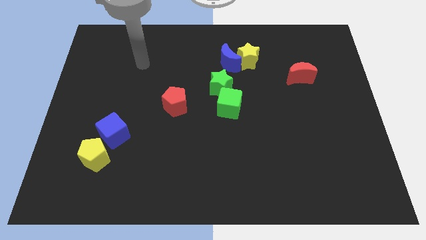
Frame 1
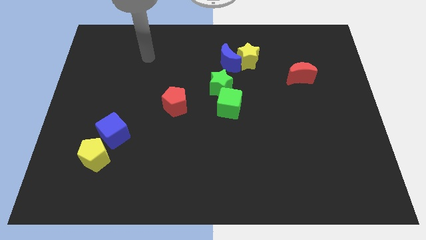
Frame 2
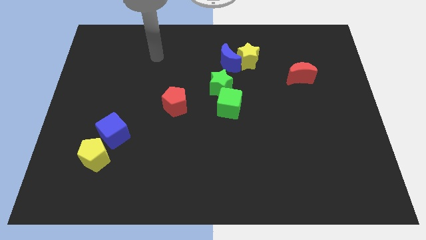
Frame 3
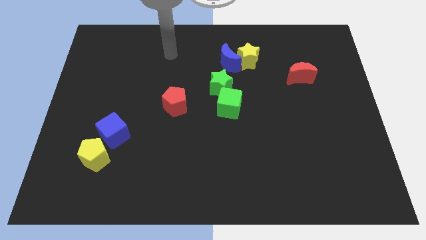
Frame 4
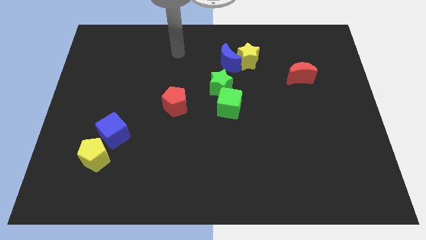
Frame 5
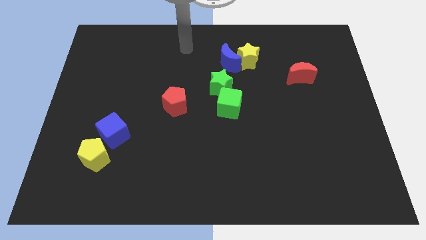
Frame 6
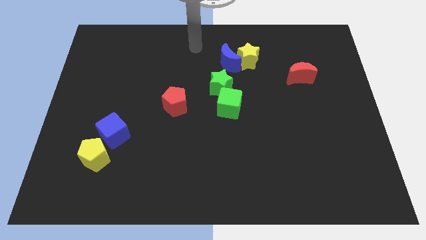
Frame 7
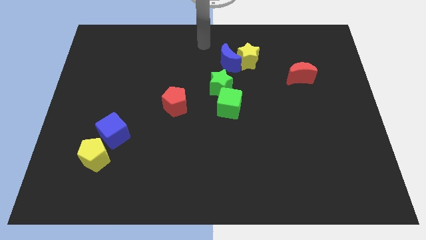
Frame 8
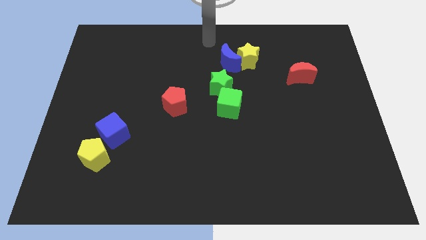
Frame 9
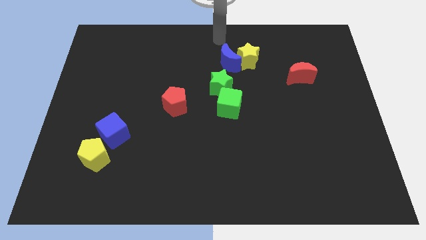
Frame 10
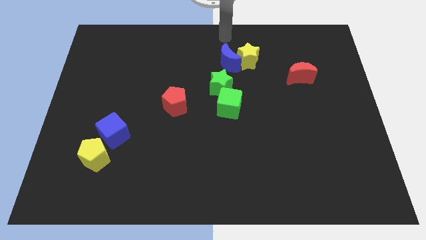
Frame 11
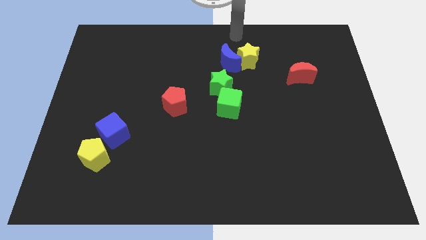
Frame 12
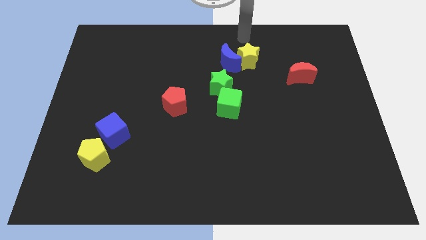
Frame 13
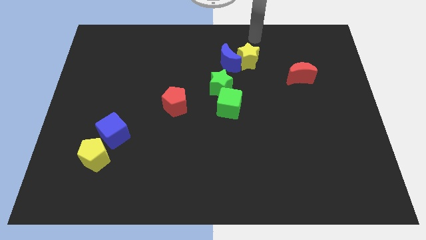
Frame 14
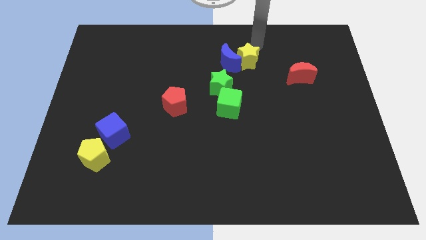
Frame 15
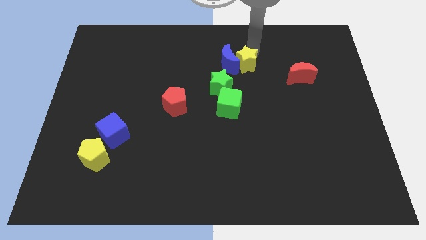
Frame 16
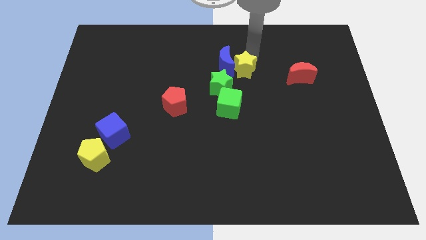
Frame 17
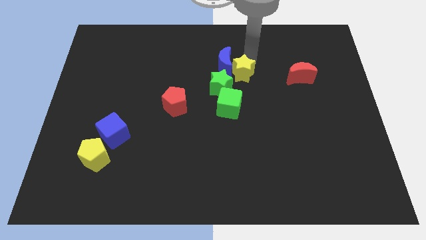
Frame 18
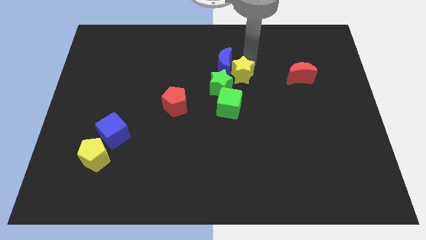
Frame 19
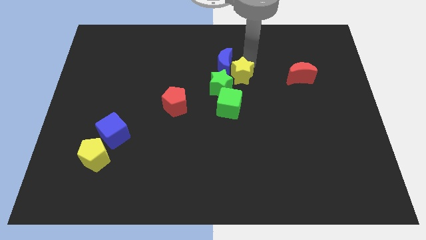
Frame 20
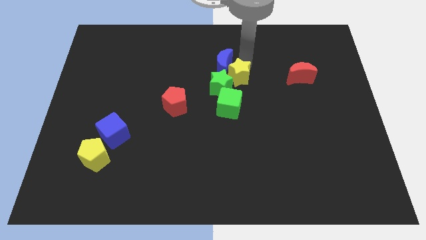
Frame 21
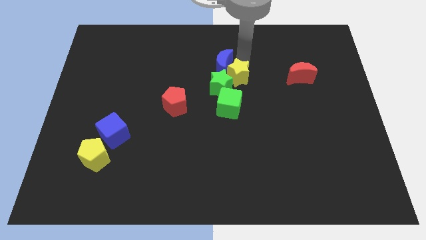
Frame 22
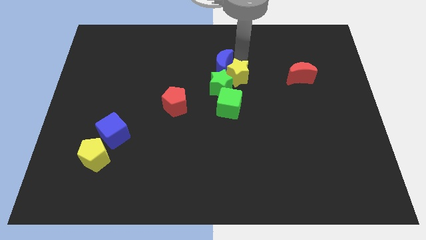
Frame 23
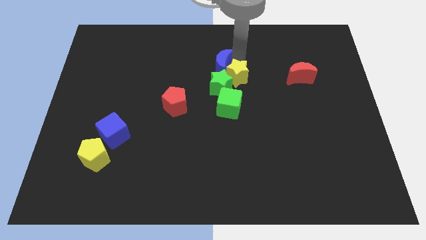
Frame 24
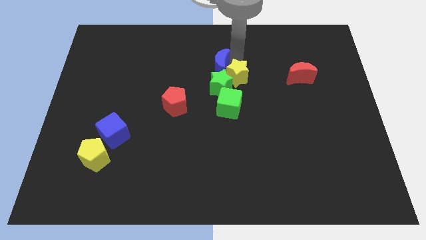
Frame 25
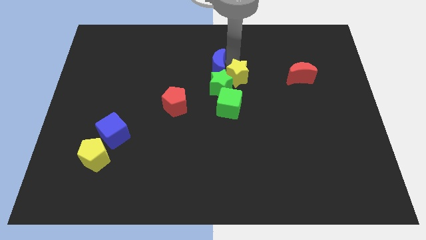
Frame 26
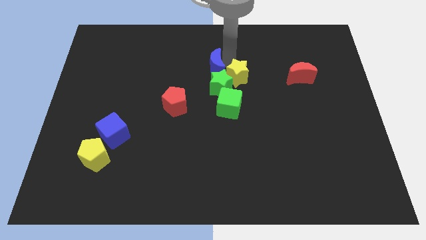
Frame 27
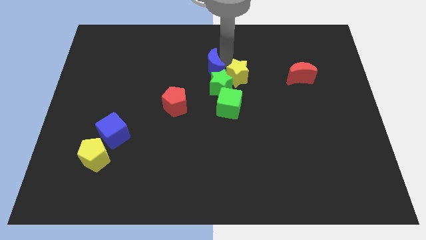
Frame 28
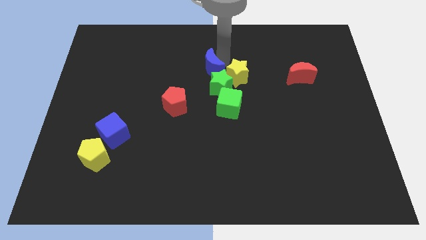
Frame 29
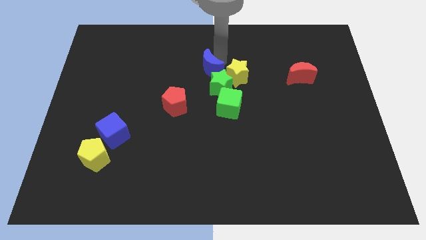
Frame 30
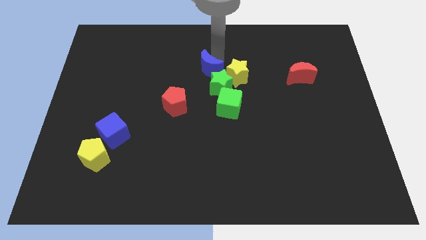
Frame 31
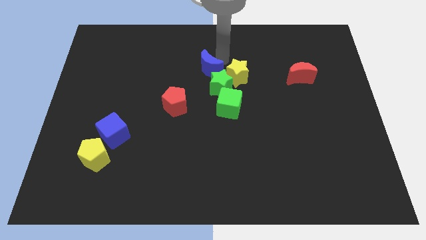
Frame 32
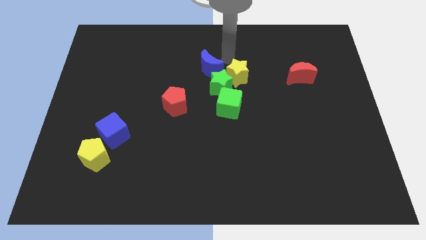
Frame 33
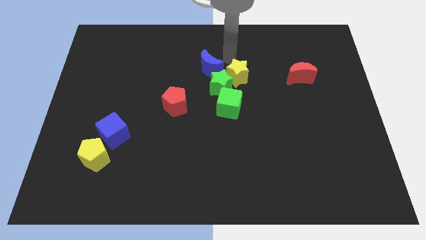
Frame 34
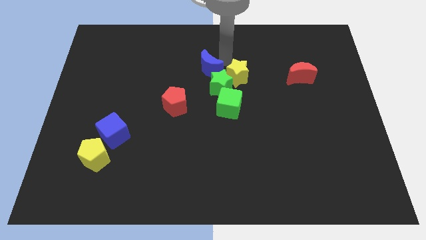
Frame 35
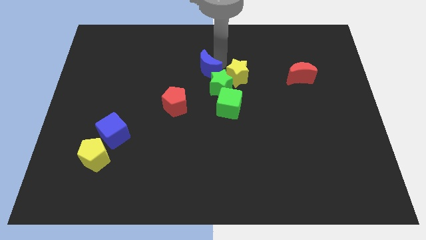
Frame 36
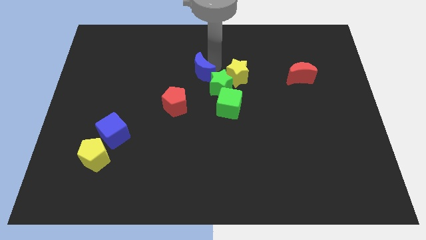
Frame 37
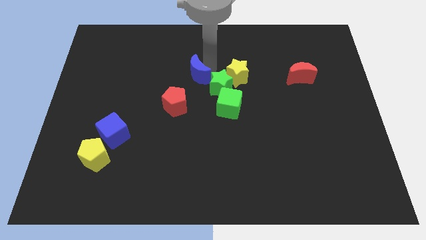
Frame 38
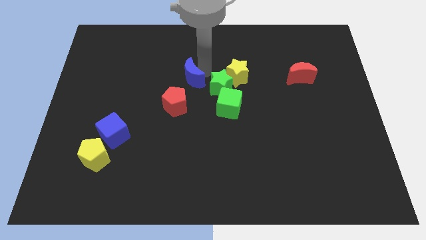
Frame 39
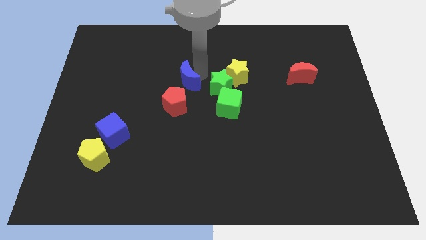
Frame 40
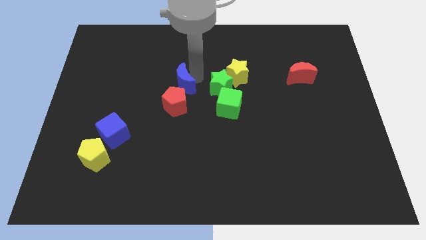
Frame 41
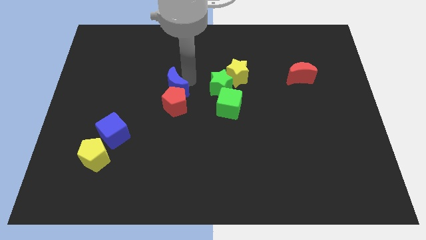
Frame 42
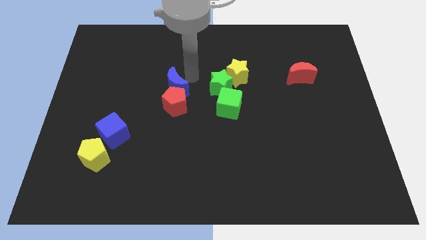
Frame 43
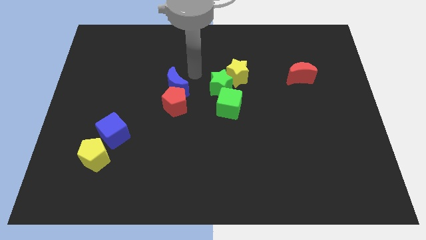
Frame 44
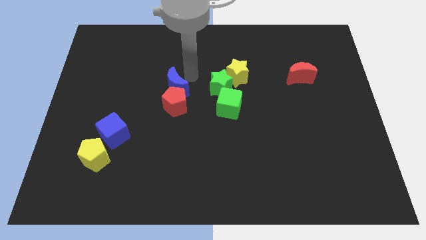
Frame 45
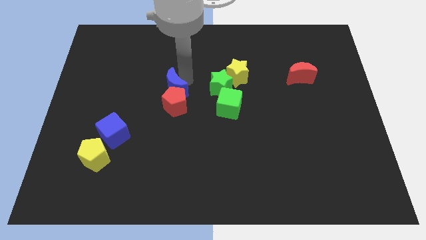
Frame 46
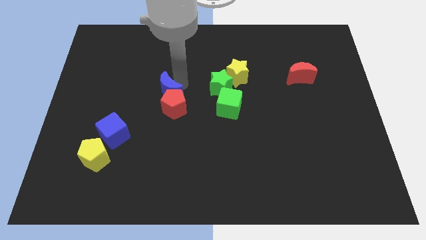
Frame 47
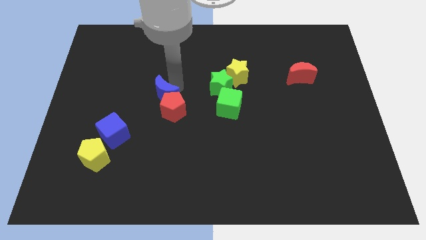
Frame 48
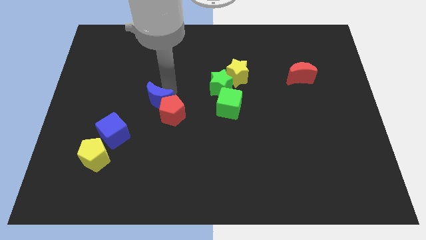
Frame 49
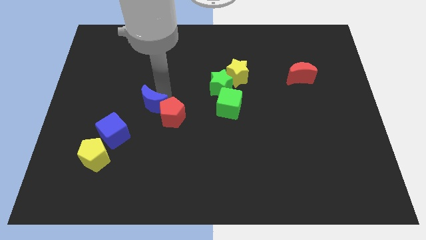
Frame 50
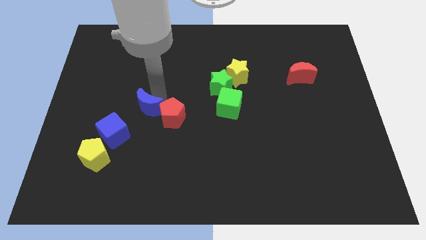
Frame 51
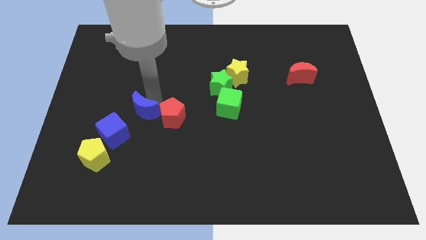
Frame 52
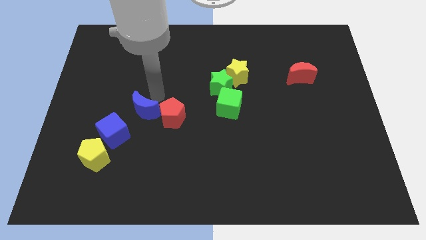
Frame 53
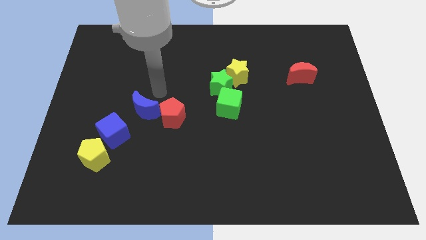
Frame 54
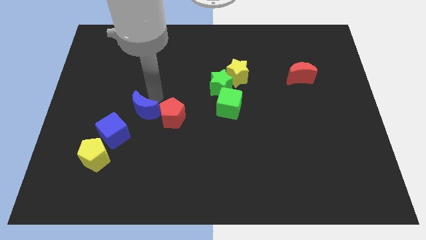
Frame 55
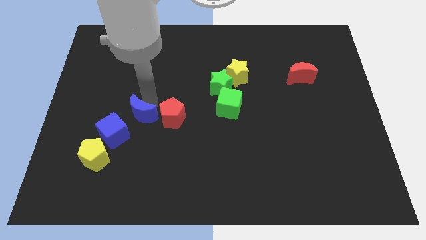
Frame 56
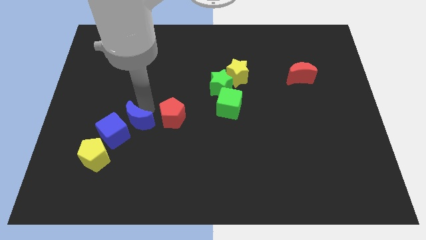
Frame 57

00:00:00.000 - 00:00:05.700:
slide the blue moon to the top right of the yellow pentagon

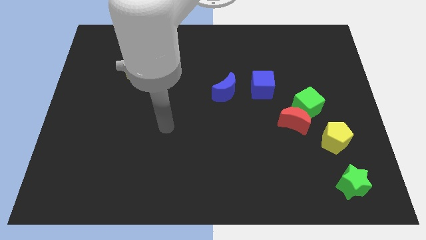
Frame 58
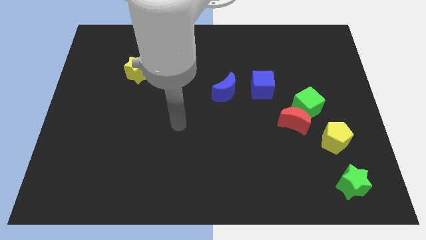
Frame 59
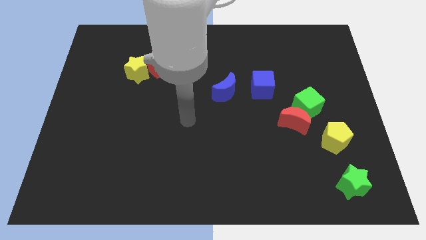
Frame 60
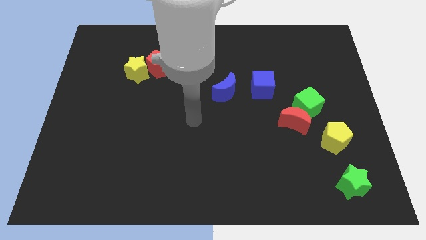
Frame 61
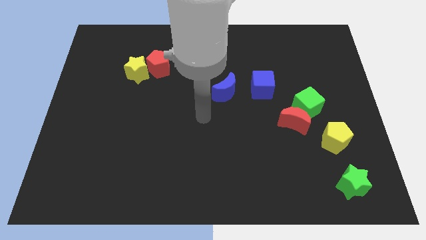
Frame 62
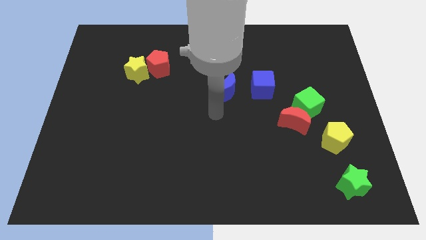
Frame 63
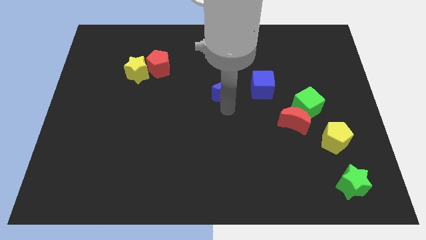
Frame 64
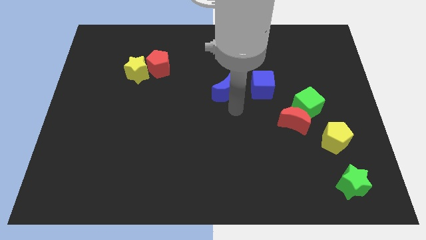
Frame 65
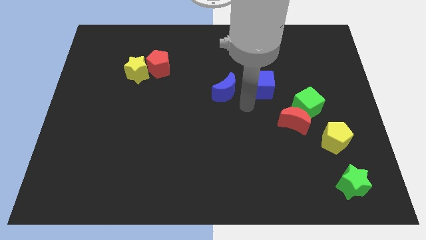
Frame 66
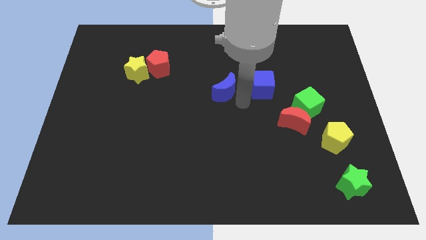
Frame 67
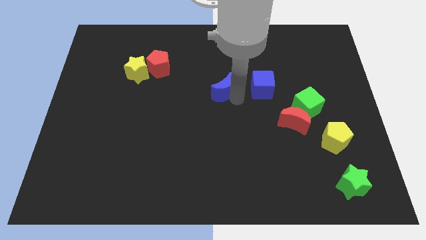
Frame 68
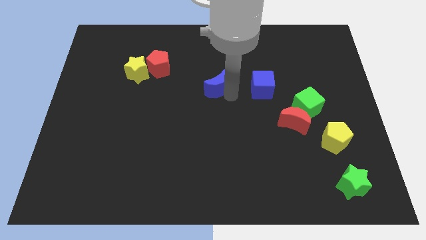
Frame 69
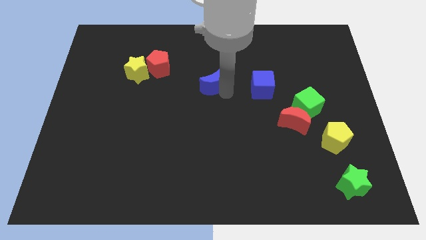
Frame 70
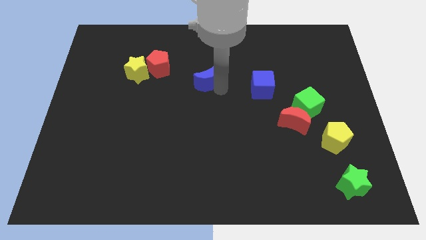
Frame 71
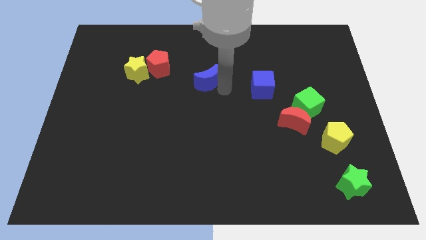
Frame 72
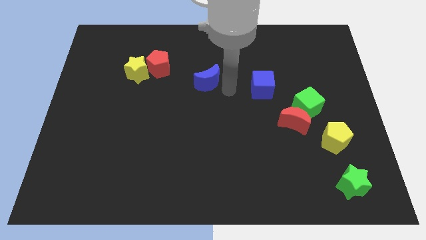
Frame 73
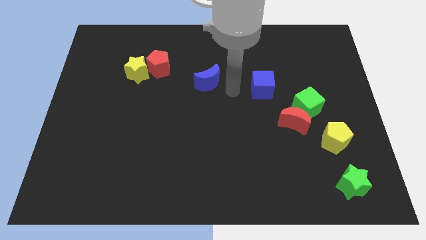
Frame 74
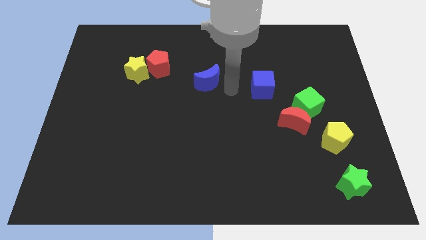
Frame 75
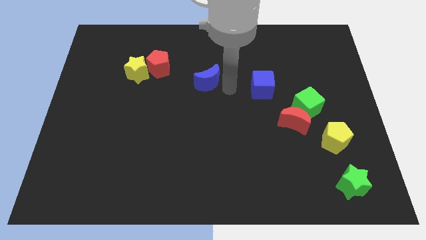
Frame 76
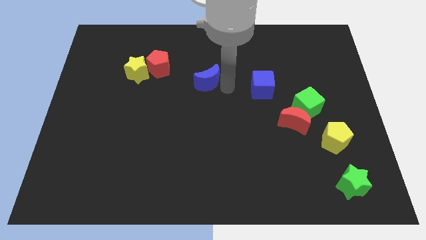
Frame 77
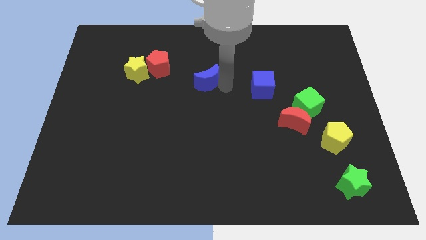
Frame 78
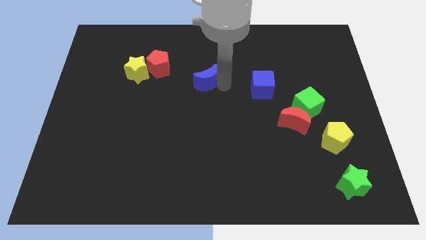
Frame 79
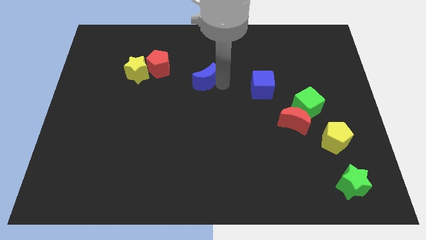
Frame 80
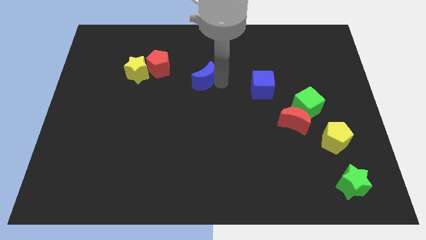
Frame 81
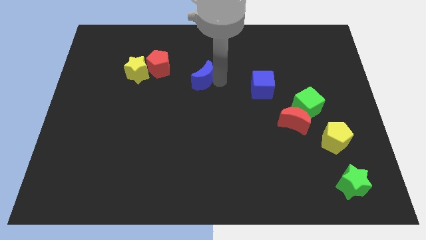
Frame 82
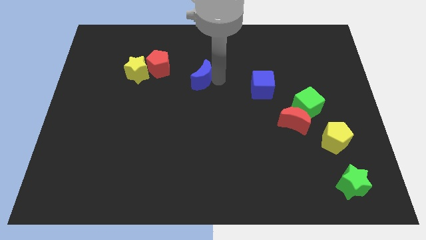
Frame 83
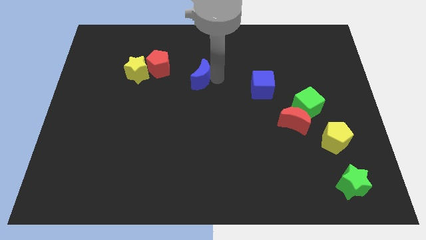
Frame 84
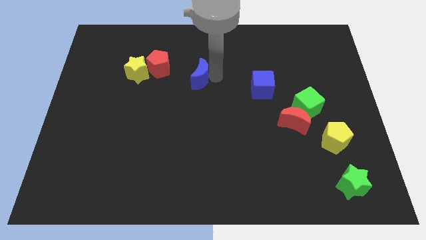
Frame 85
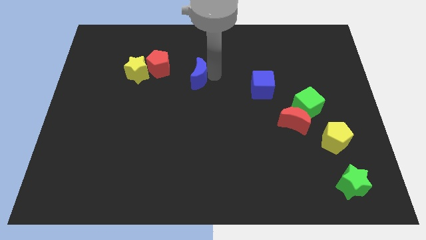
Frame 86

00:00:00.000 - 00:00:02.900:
put the blue moon just right of the yellow star
